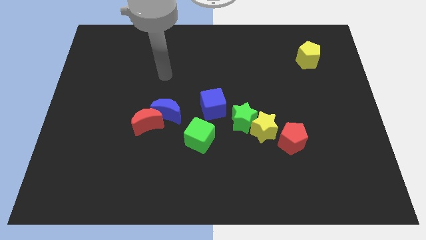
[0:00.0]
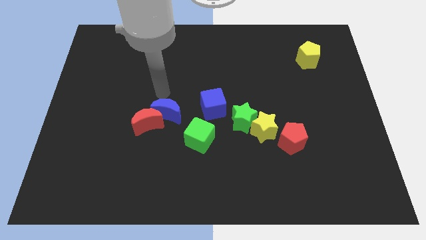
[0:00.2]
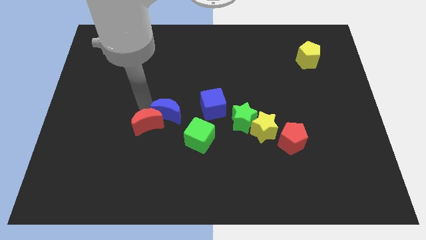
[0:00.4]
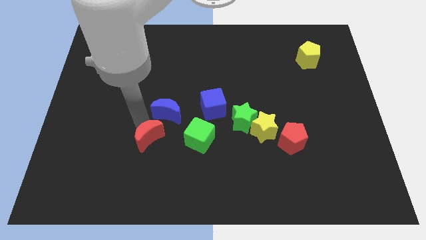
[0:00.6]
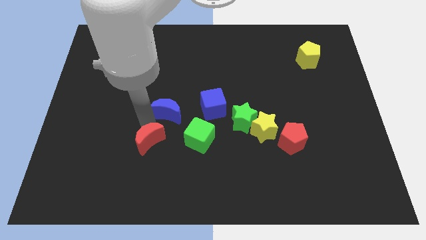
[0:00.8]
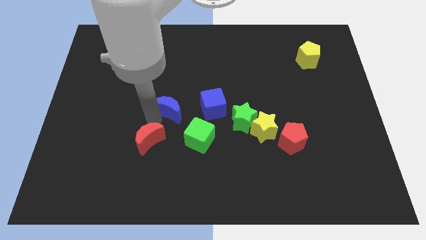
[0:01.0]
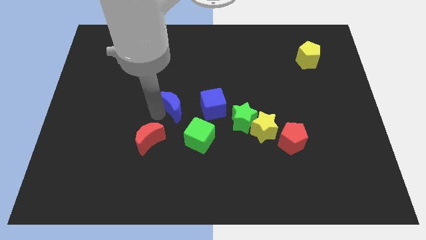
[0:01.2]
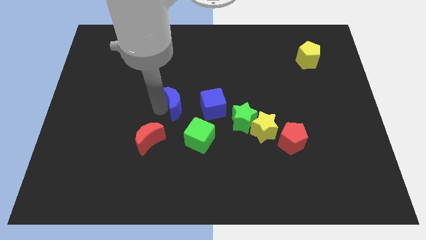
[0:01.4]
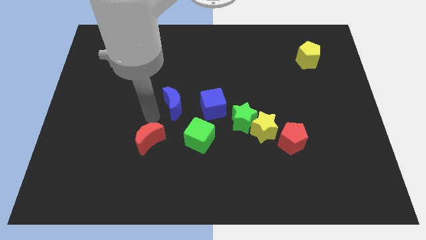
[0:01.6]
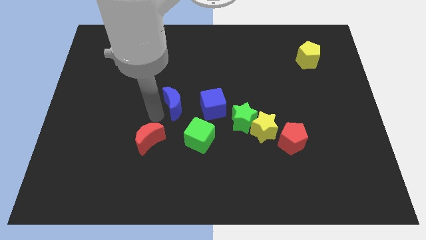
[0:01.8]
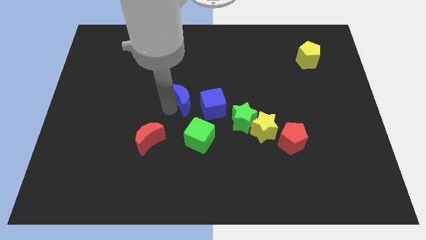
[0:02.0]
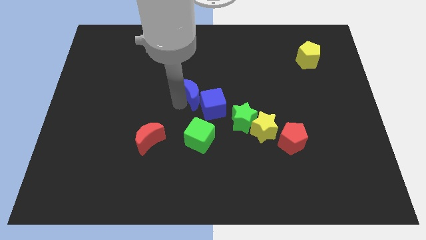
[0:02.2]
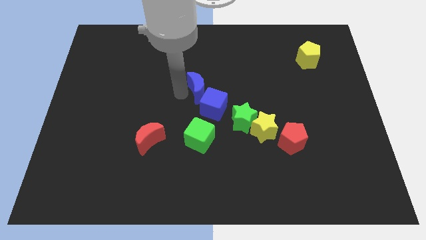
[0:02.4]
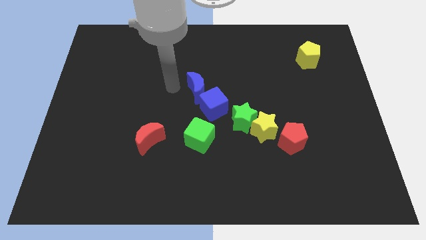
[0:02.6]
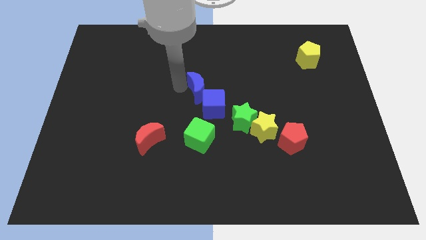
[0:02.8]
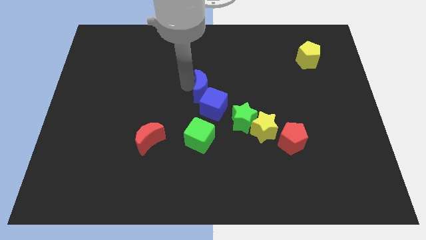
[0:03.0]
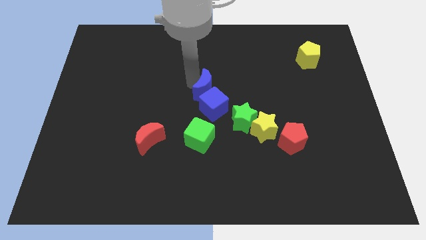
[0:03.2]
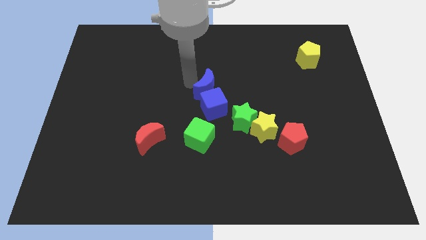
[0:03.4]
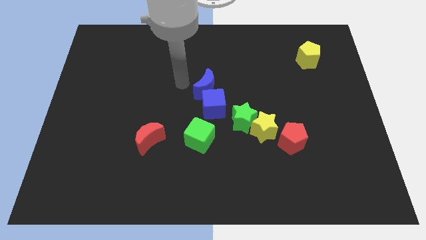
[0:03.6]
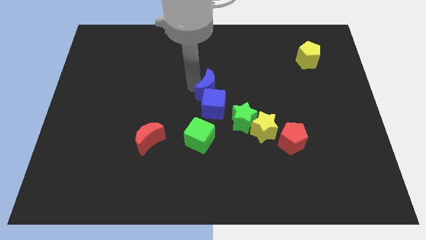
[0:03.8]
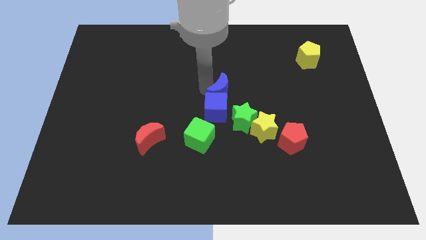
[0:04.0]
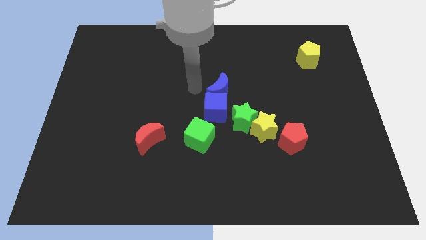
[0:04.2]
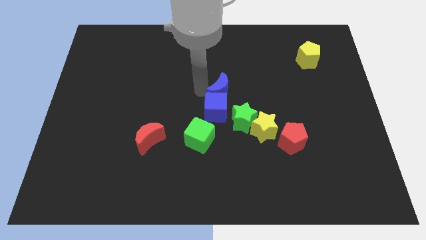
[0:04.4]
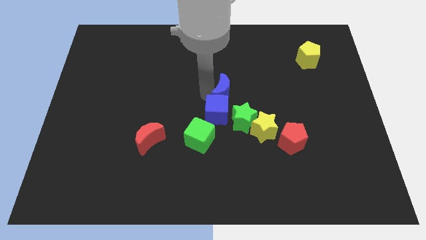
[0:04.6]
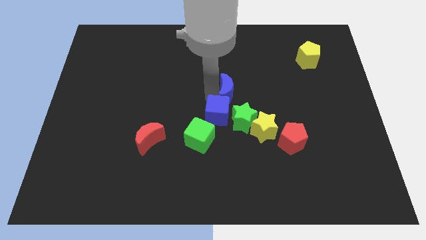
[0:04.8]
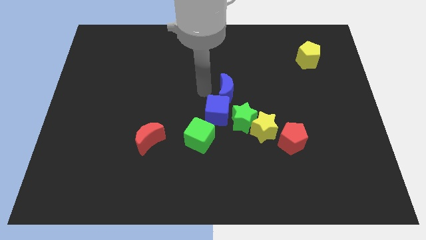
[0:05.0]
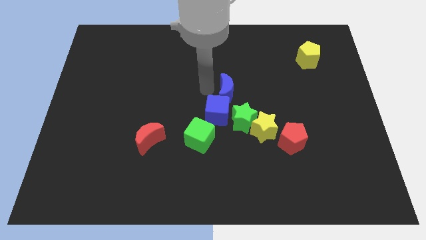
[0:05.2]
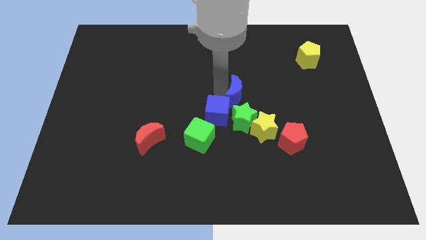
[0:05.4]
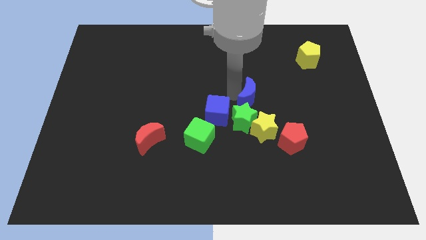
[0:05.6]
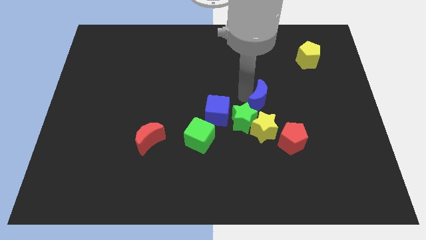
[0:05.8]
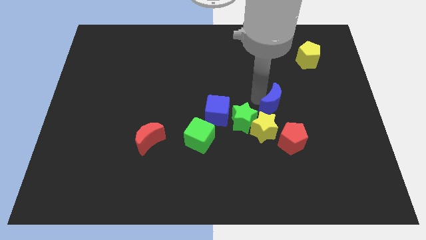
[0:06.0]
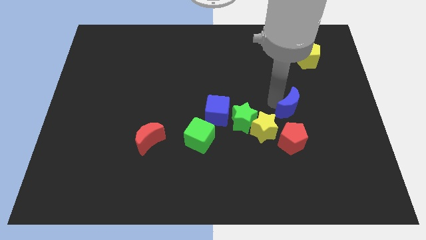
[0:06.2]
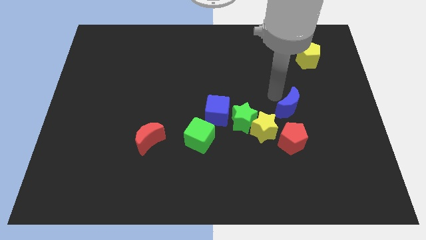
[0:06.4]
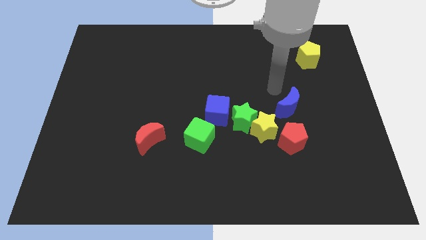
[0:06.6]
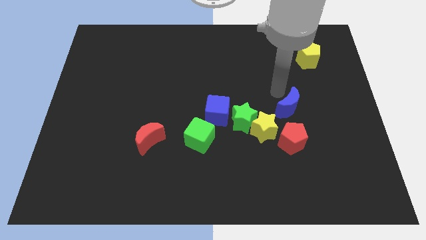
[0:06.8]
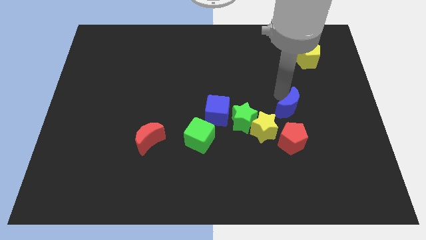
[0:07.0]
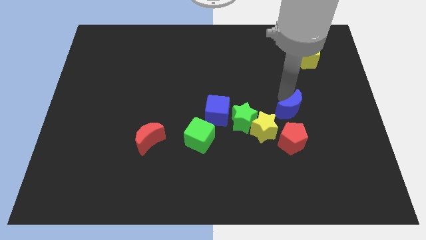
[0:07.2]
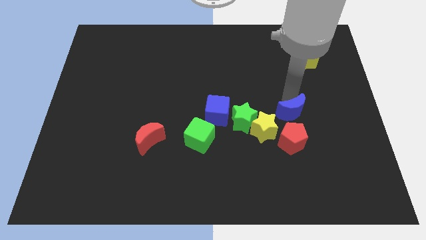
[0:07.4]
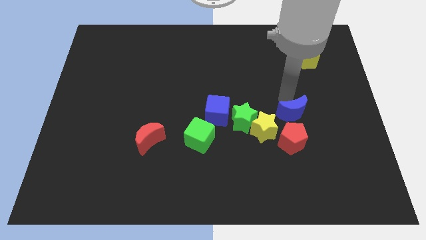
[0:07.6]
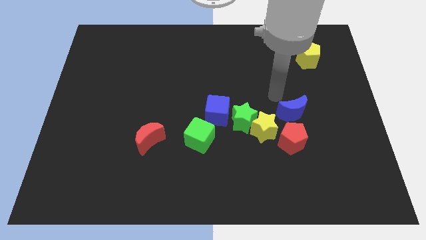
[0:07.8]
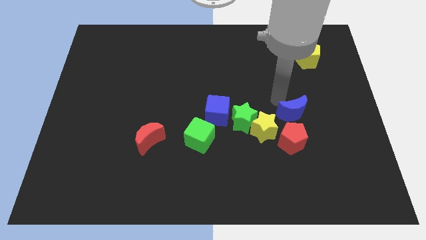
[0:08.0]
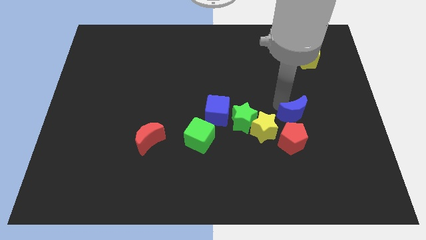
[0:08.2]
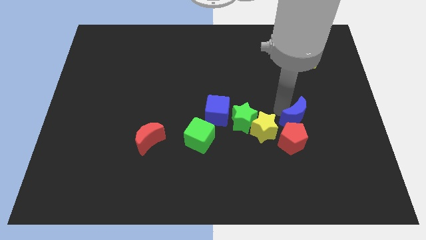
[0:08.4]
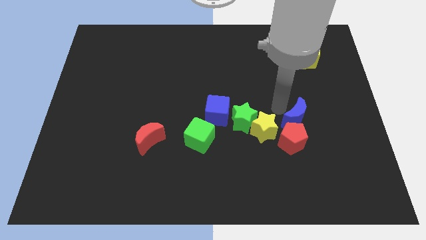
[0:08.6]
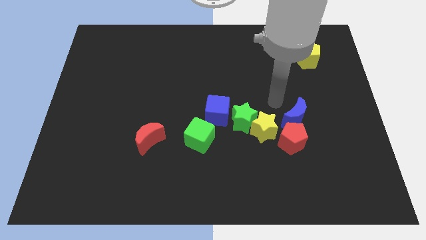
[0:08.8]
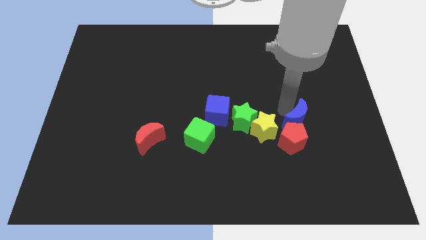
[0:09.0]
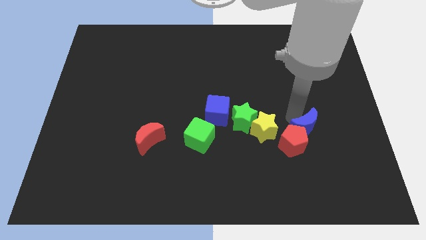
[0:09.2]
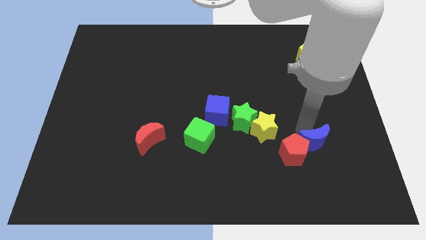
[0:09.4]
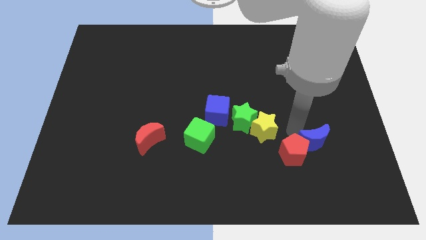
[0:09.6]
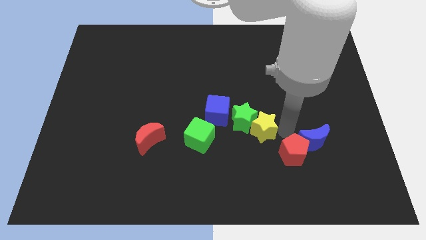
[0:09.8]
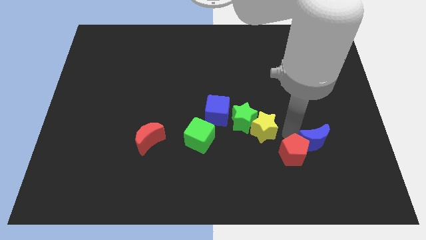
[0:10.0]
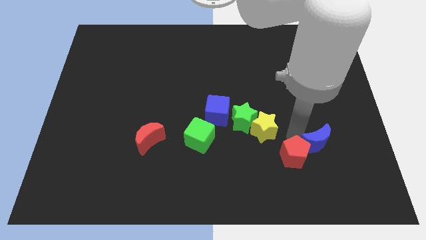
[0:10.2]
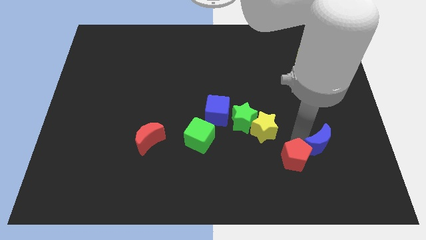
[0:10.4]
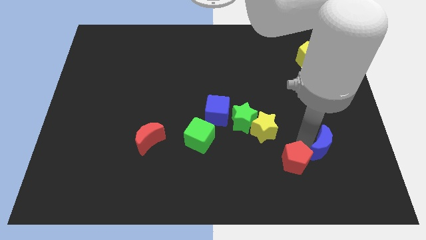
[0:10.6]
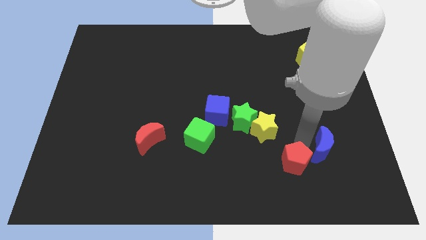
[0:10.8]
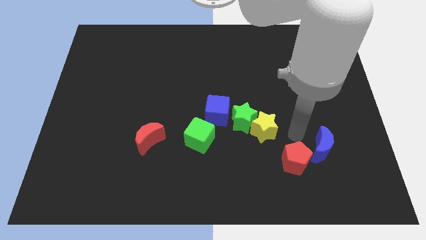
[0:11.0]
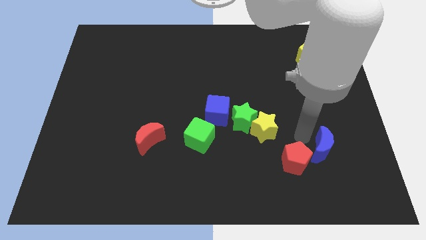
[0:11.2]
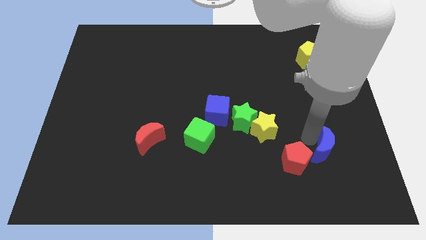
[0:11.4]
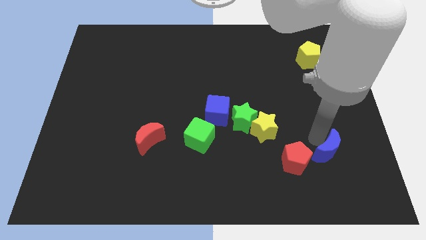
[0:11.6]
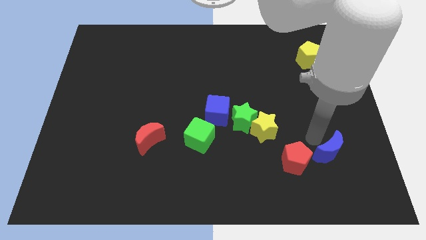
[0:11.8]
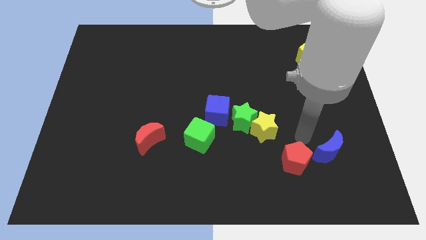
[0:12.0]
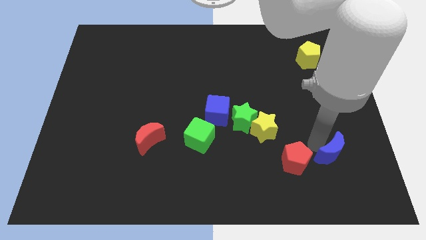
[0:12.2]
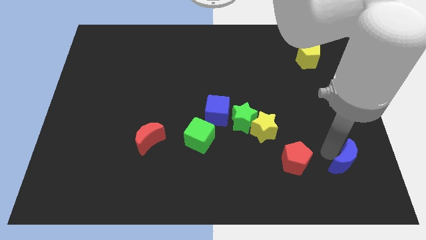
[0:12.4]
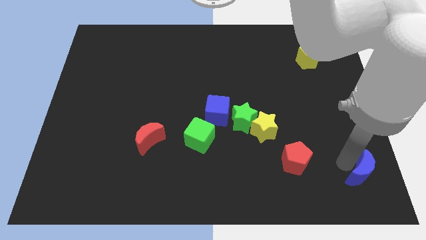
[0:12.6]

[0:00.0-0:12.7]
push the blue moon to the bottom right of the board

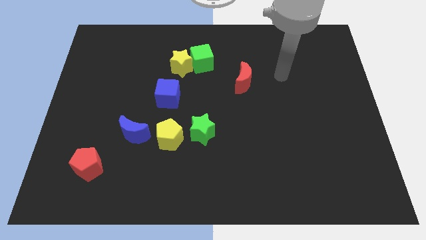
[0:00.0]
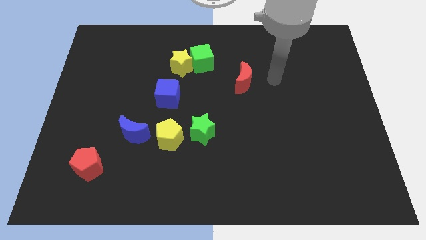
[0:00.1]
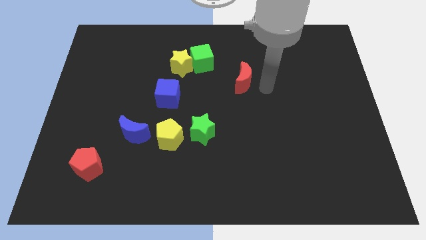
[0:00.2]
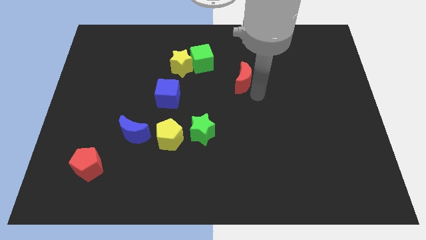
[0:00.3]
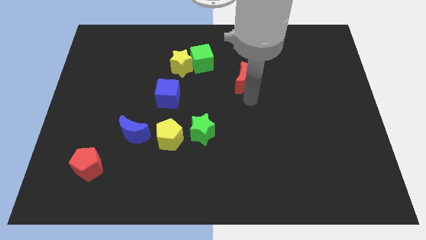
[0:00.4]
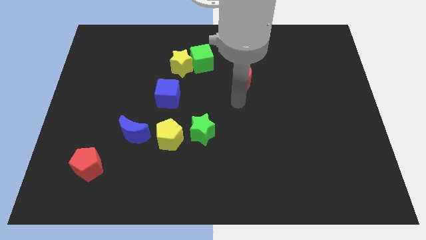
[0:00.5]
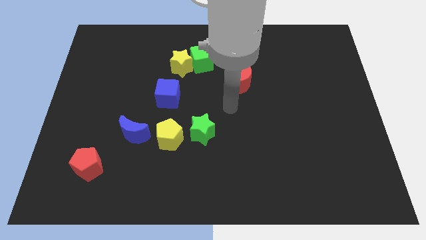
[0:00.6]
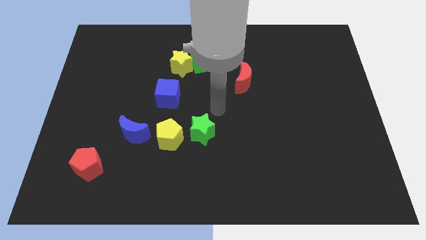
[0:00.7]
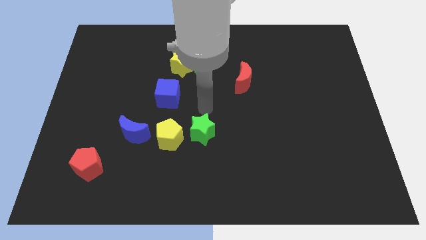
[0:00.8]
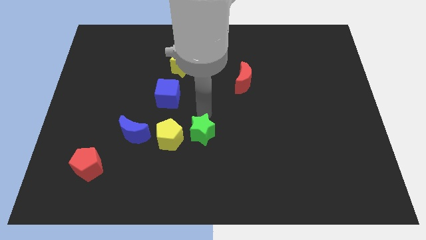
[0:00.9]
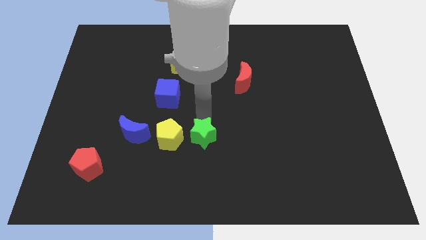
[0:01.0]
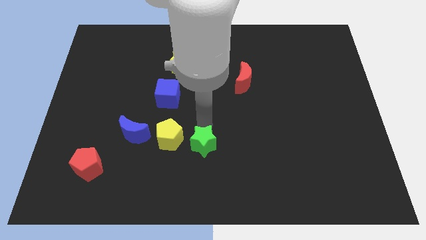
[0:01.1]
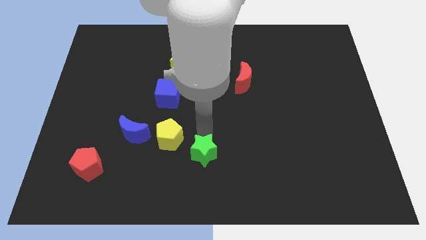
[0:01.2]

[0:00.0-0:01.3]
push the green star to the bottom

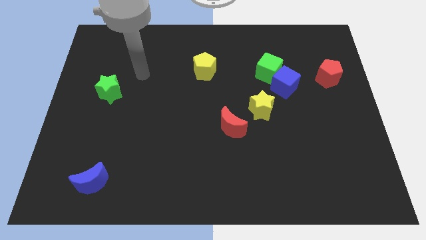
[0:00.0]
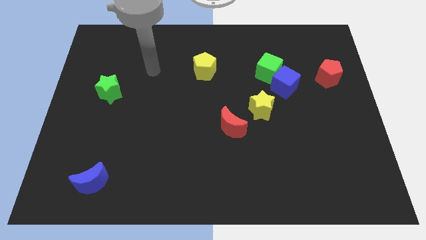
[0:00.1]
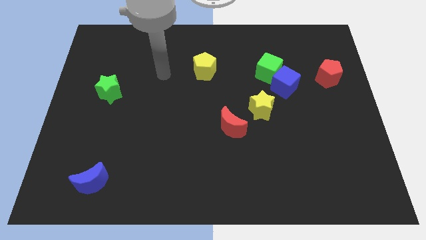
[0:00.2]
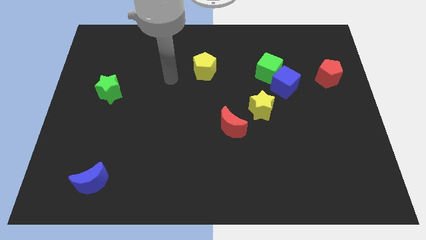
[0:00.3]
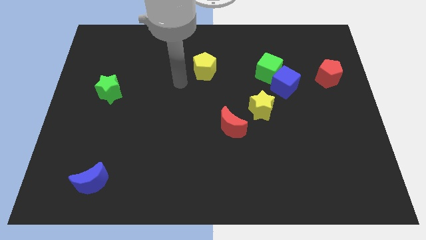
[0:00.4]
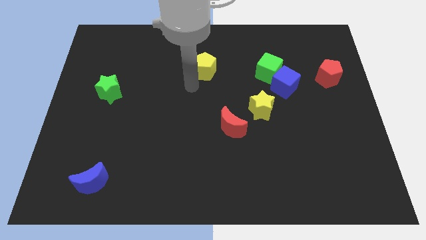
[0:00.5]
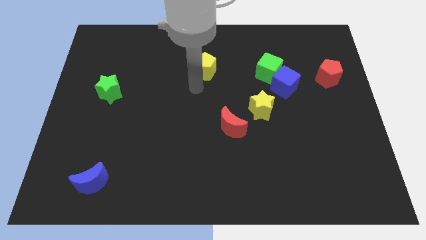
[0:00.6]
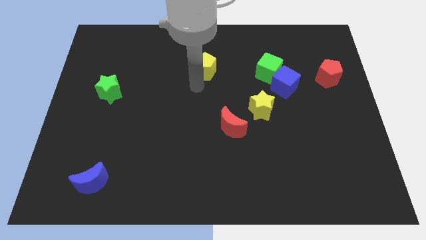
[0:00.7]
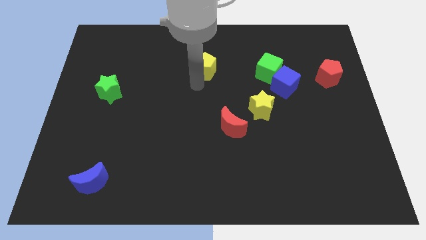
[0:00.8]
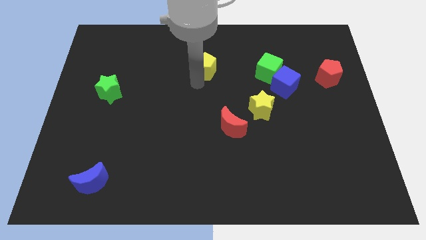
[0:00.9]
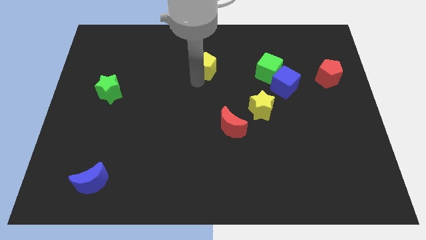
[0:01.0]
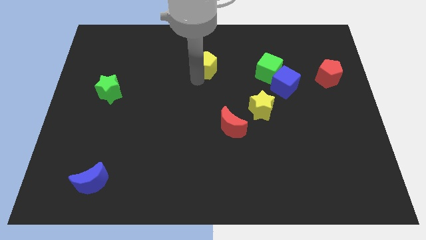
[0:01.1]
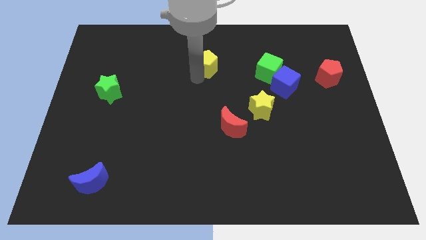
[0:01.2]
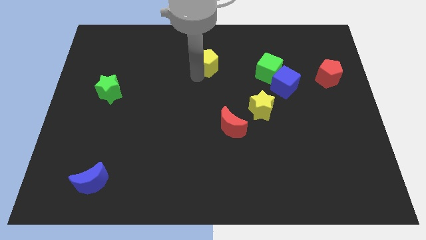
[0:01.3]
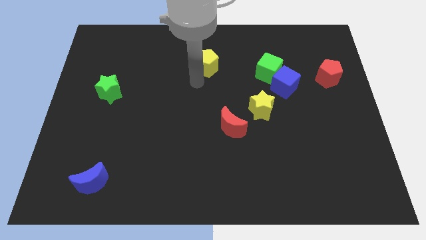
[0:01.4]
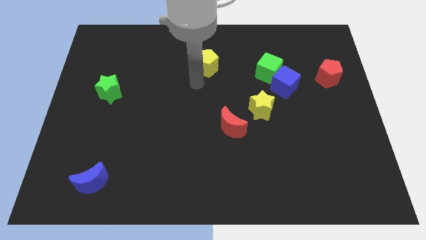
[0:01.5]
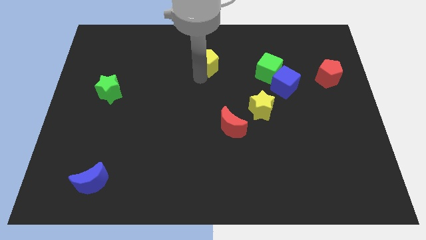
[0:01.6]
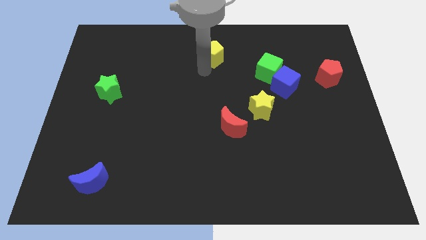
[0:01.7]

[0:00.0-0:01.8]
push the yellow pentagon to the top
